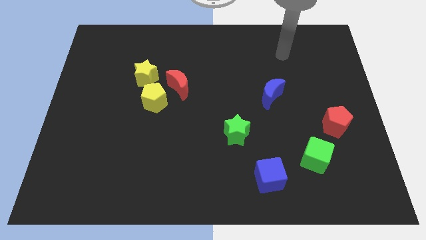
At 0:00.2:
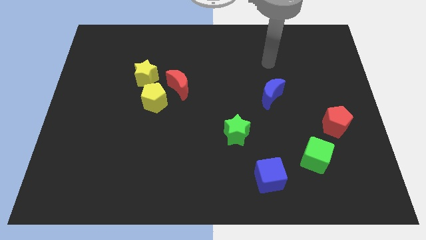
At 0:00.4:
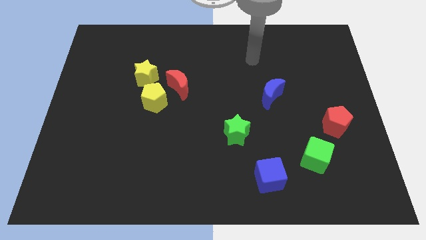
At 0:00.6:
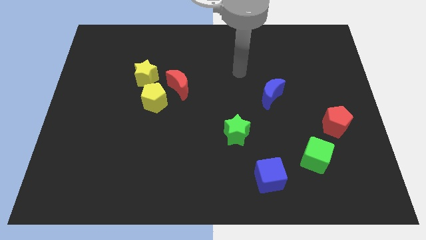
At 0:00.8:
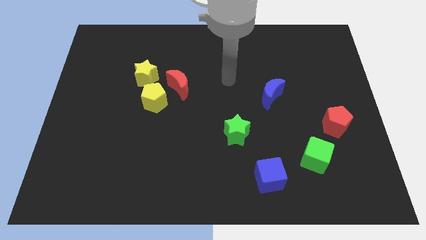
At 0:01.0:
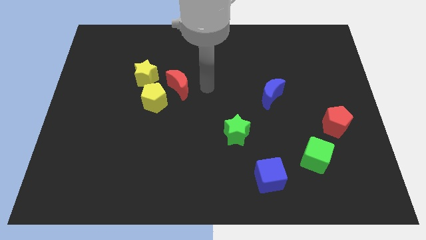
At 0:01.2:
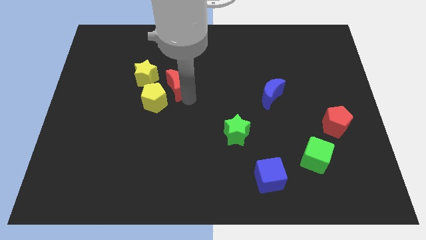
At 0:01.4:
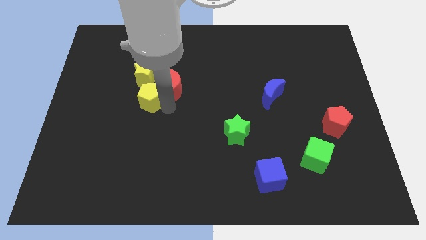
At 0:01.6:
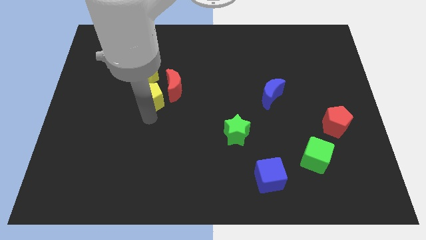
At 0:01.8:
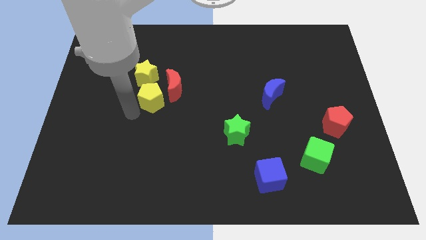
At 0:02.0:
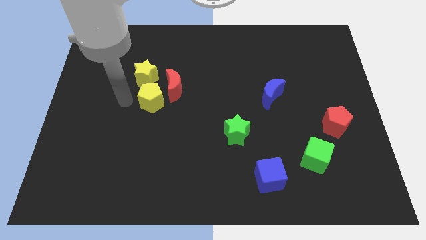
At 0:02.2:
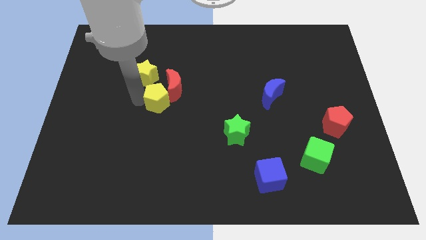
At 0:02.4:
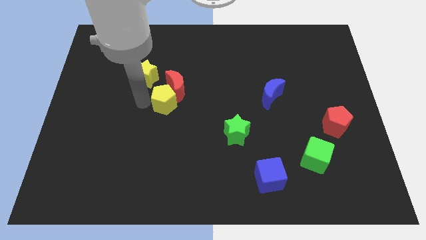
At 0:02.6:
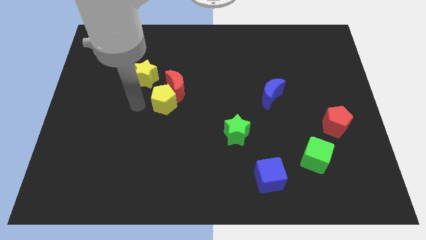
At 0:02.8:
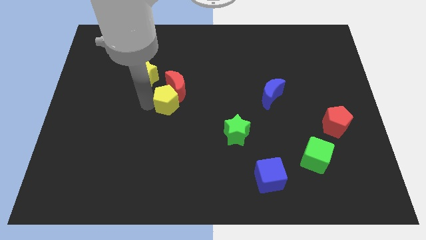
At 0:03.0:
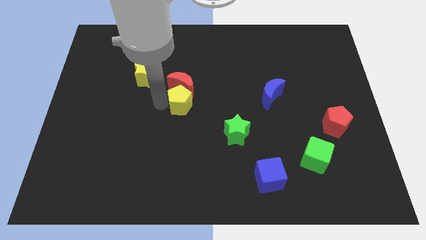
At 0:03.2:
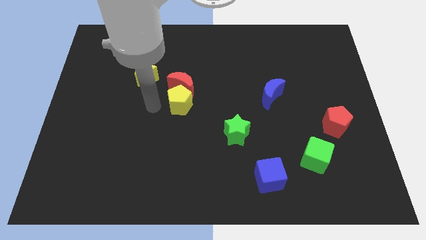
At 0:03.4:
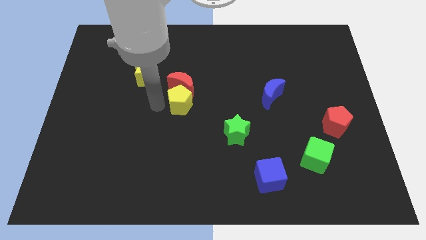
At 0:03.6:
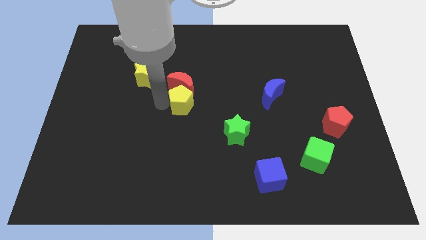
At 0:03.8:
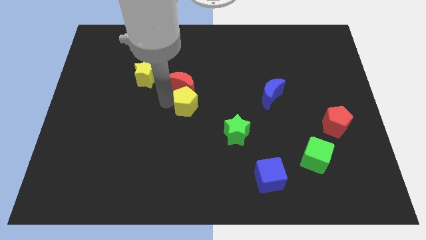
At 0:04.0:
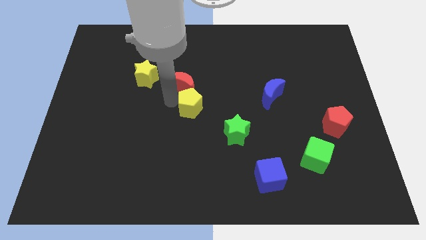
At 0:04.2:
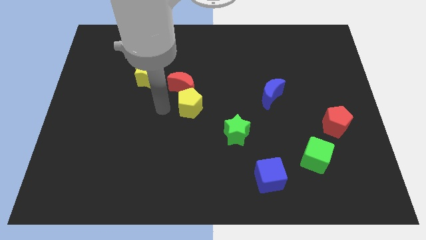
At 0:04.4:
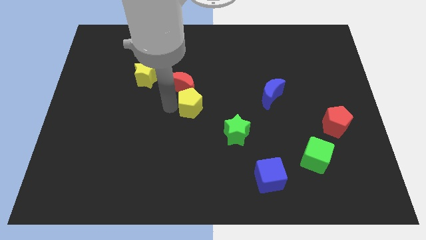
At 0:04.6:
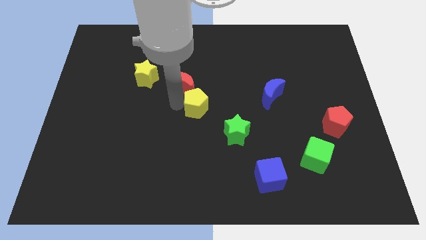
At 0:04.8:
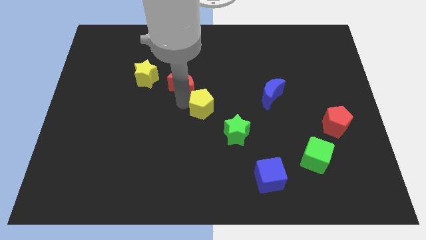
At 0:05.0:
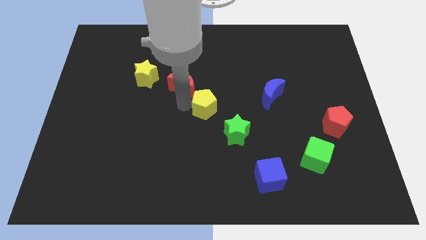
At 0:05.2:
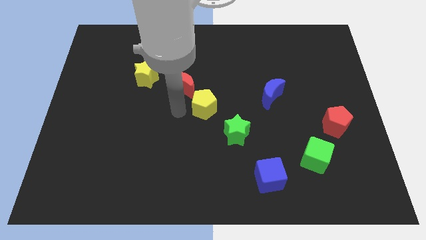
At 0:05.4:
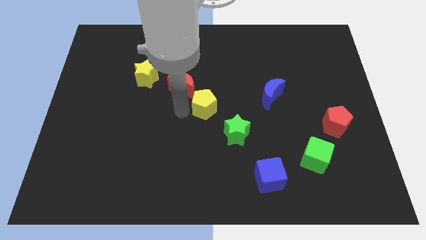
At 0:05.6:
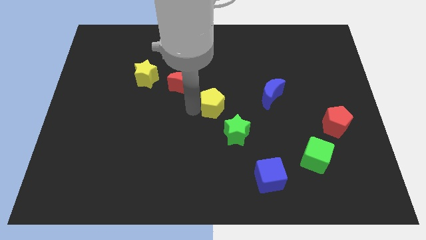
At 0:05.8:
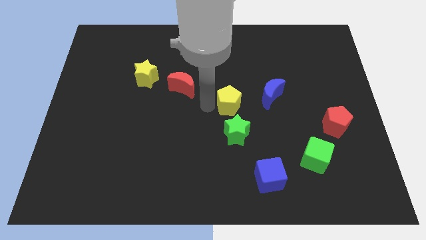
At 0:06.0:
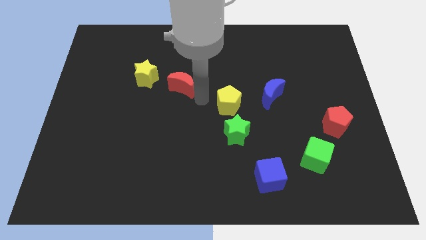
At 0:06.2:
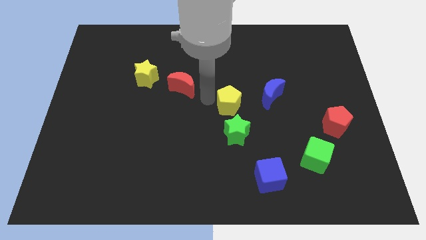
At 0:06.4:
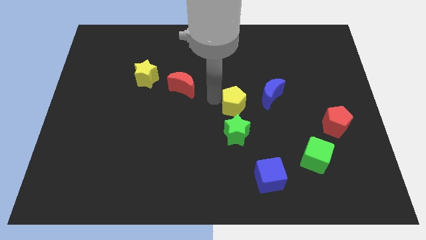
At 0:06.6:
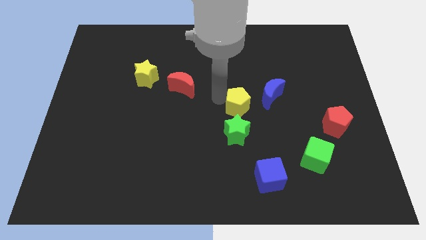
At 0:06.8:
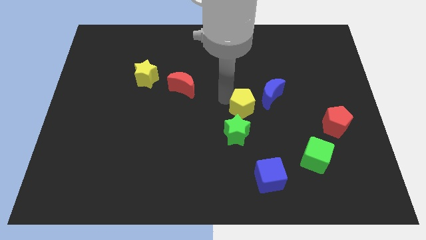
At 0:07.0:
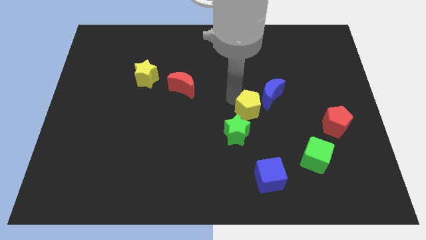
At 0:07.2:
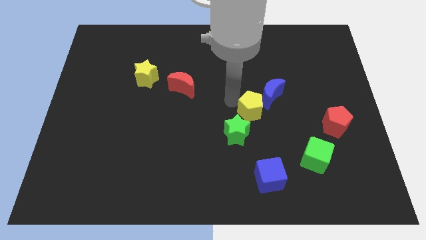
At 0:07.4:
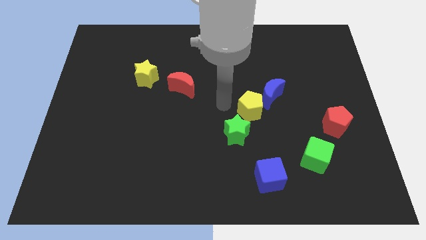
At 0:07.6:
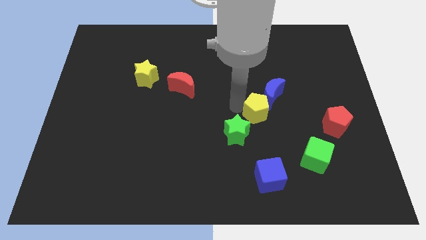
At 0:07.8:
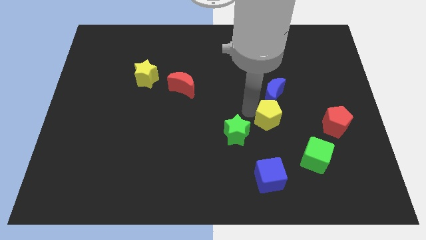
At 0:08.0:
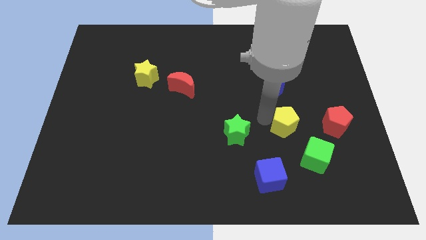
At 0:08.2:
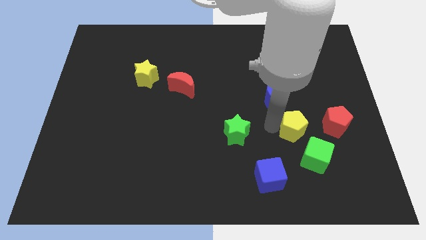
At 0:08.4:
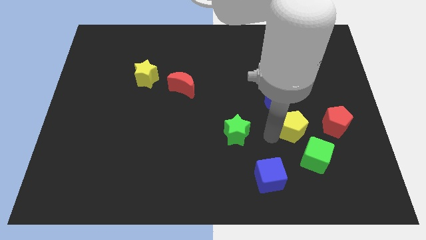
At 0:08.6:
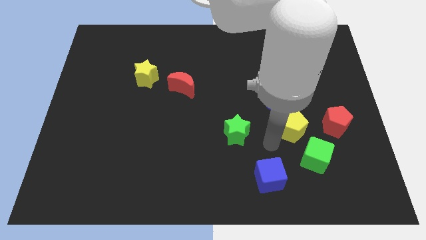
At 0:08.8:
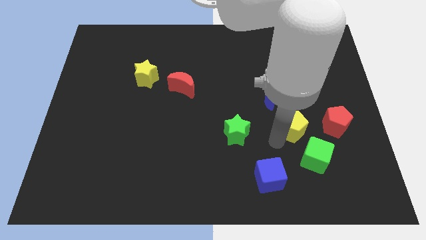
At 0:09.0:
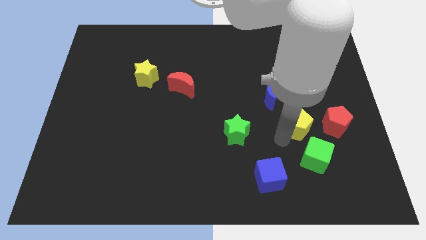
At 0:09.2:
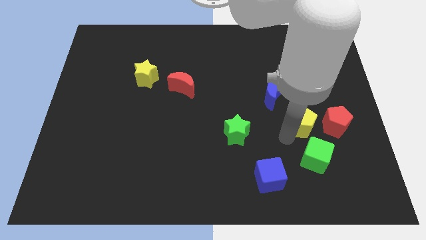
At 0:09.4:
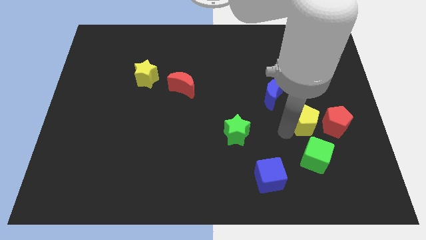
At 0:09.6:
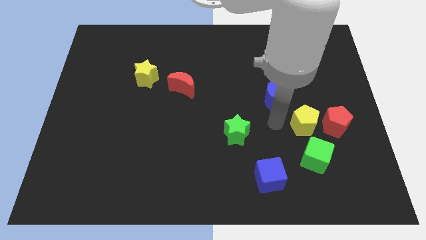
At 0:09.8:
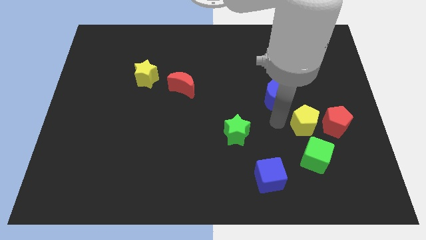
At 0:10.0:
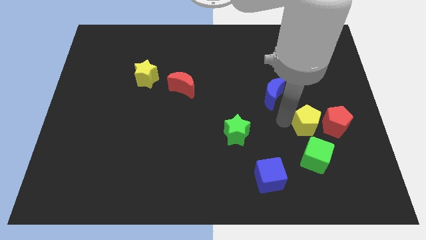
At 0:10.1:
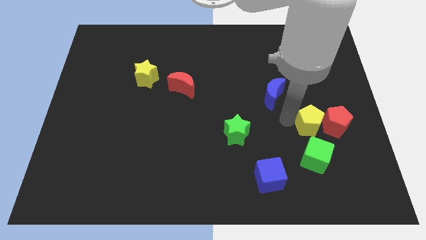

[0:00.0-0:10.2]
push the yellow pentagon next to the red pentagon

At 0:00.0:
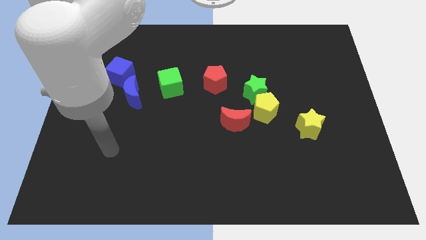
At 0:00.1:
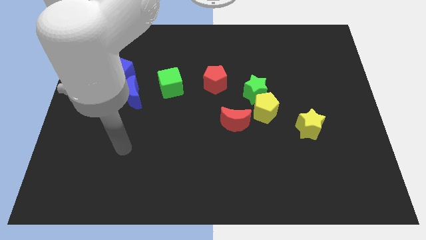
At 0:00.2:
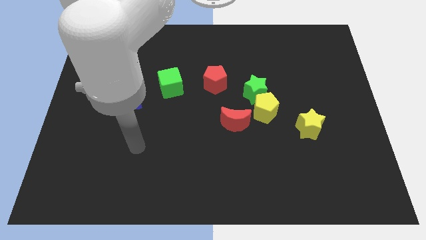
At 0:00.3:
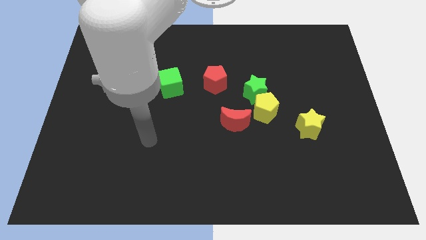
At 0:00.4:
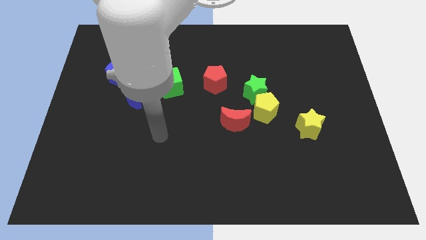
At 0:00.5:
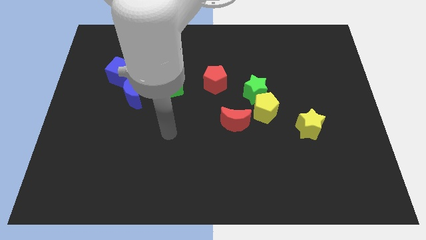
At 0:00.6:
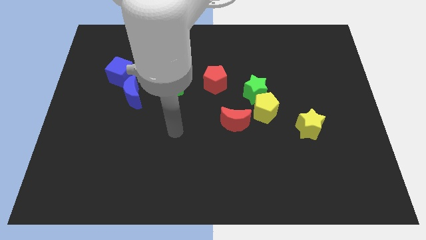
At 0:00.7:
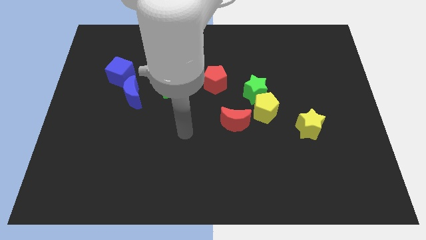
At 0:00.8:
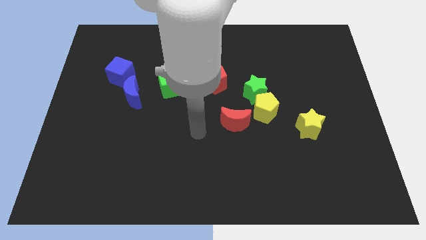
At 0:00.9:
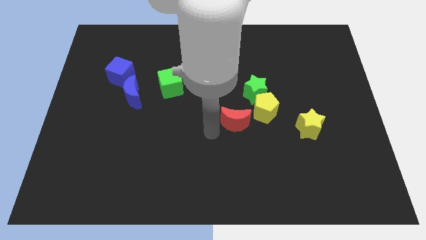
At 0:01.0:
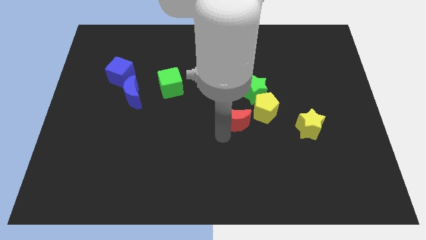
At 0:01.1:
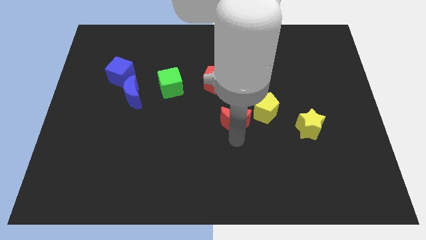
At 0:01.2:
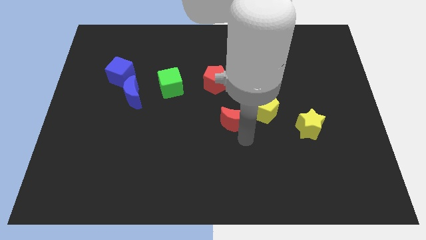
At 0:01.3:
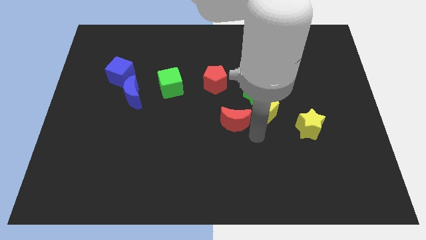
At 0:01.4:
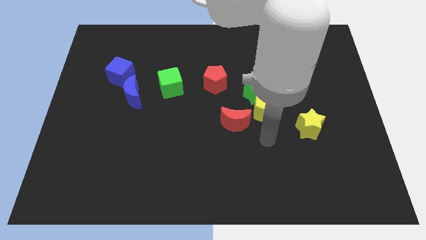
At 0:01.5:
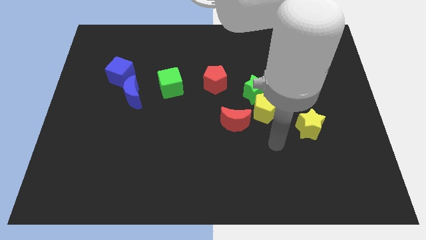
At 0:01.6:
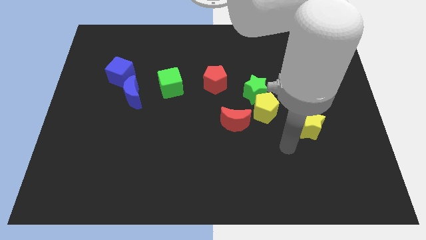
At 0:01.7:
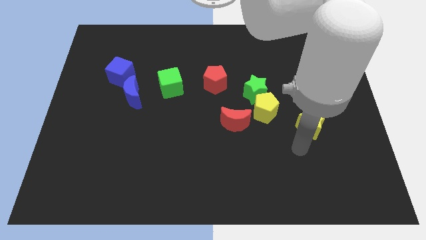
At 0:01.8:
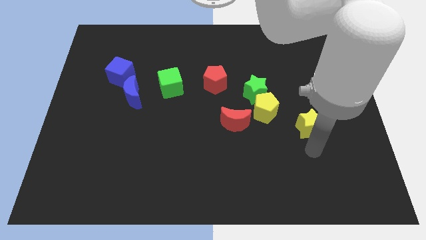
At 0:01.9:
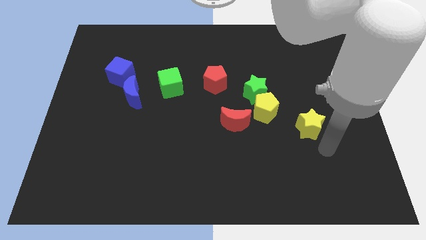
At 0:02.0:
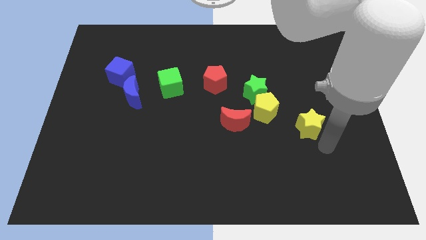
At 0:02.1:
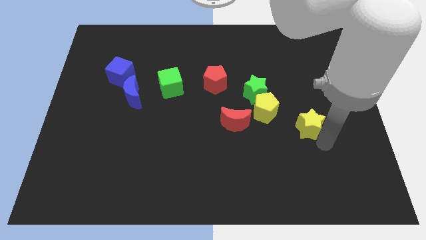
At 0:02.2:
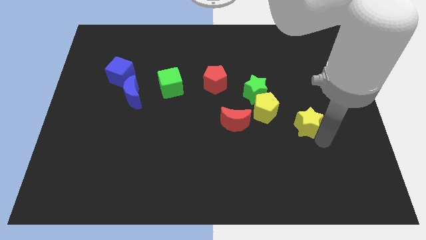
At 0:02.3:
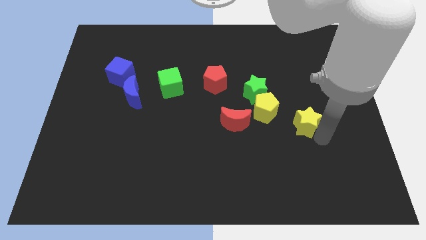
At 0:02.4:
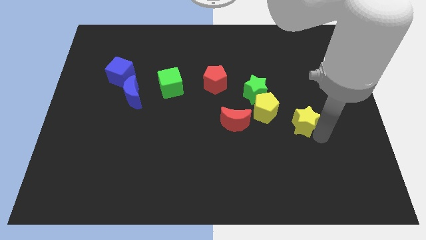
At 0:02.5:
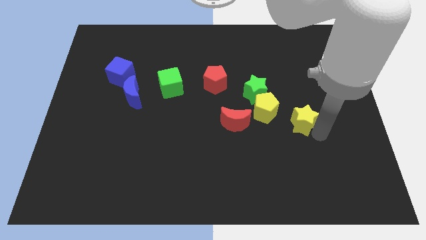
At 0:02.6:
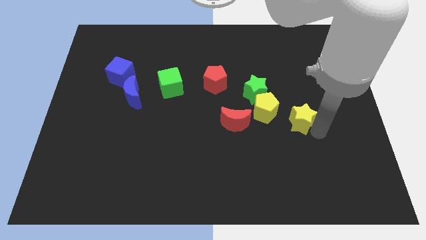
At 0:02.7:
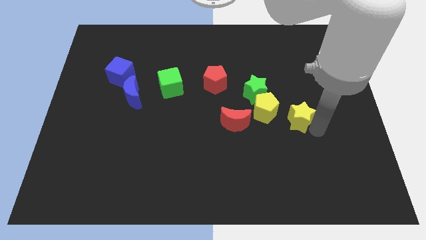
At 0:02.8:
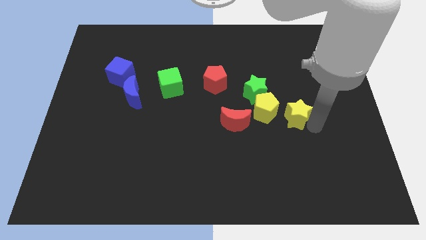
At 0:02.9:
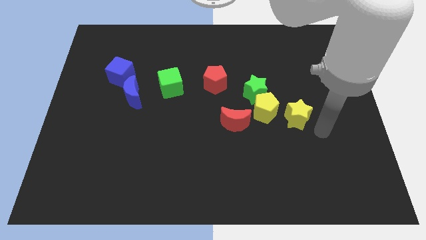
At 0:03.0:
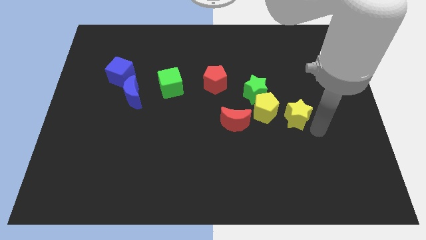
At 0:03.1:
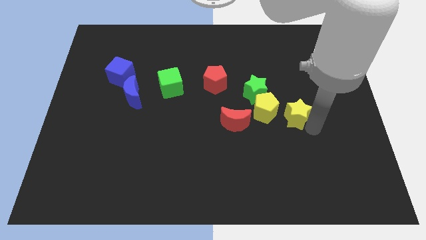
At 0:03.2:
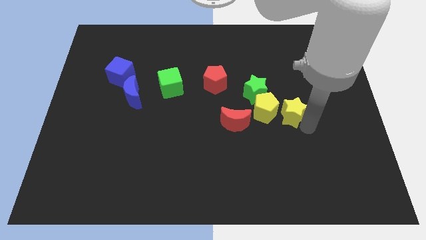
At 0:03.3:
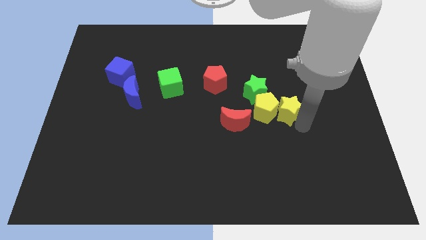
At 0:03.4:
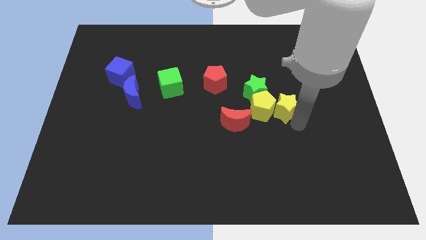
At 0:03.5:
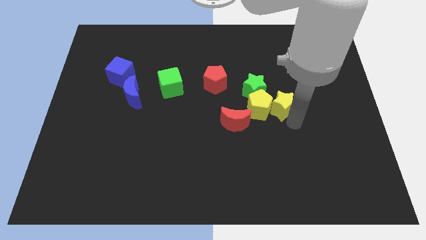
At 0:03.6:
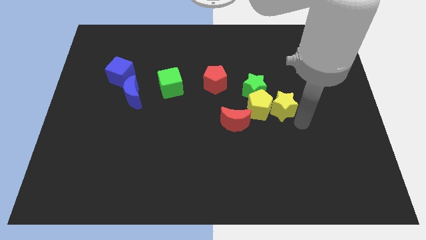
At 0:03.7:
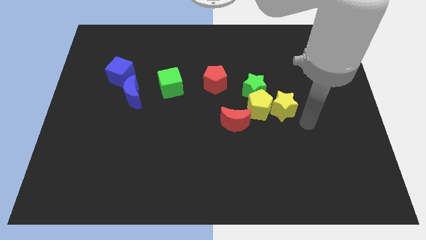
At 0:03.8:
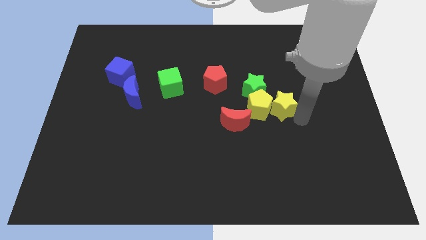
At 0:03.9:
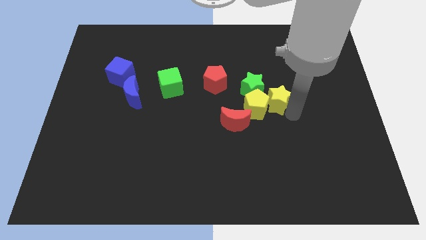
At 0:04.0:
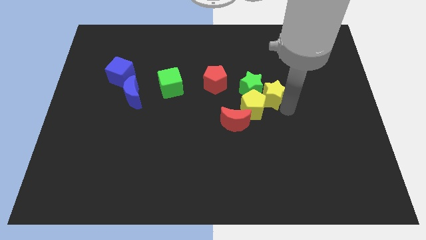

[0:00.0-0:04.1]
push the yellow star close to the green star
